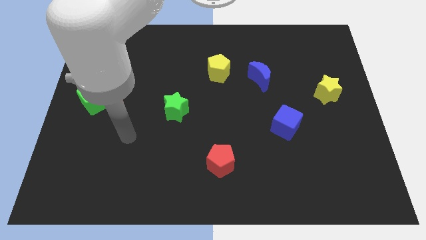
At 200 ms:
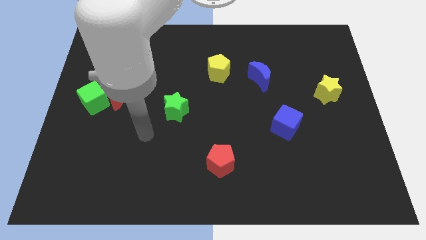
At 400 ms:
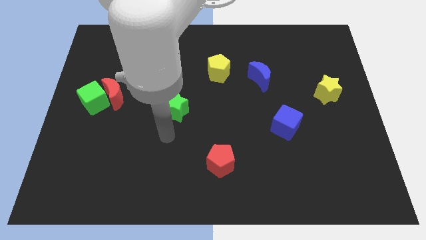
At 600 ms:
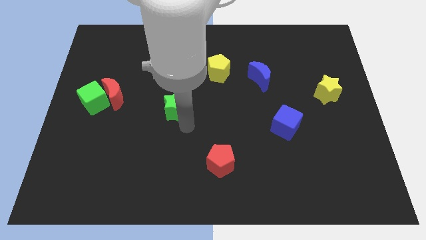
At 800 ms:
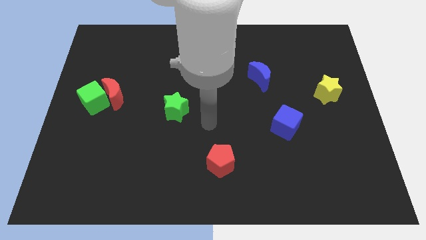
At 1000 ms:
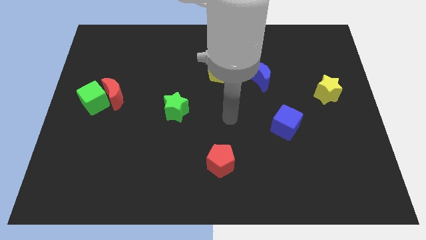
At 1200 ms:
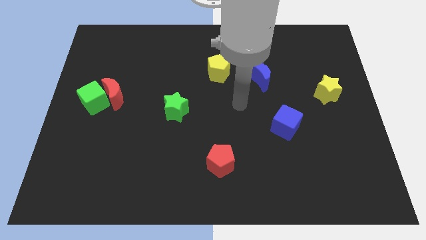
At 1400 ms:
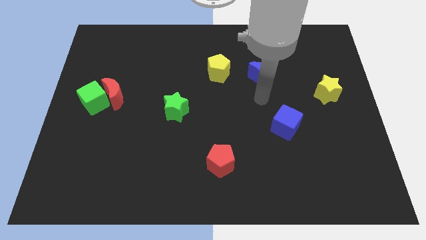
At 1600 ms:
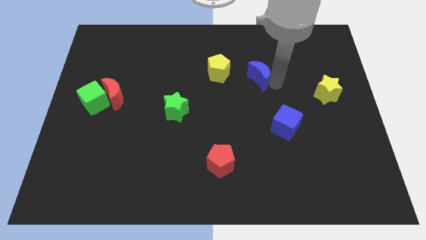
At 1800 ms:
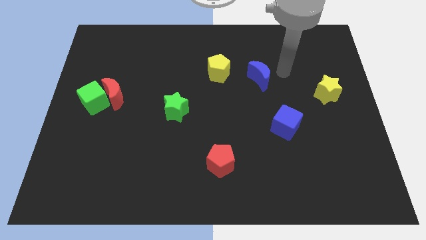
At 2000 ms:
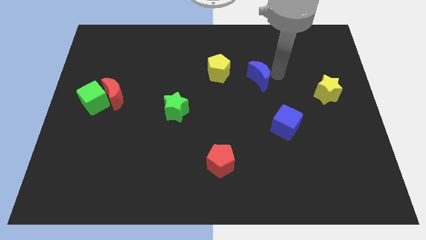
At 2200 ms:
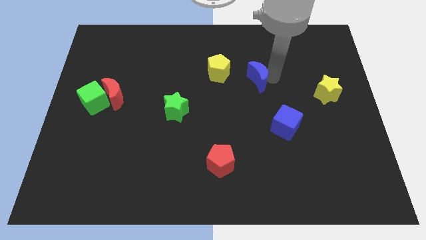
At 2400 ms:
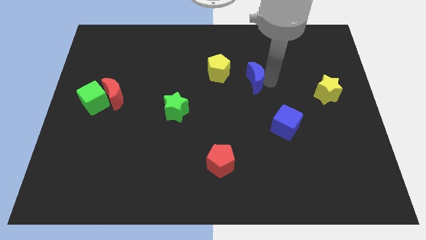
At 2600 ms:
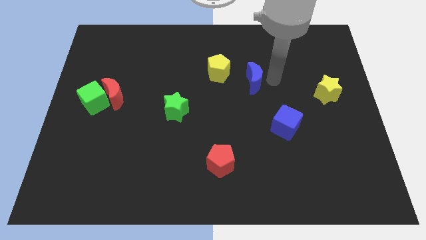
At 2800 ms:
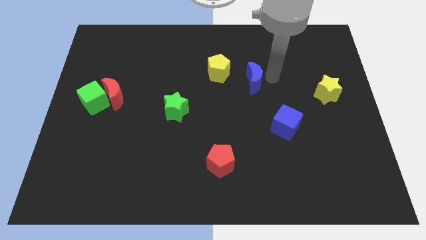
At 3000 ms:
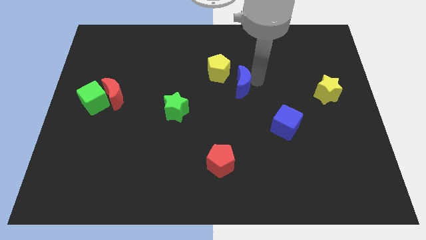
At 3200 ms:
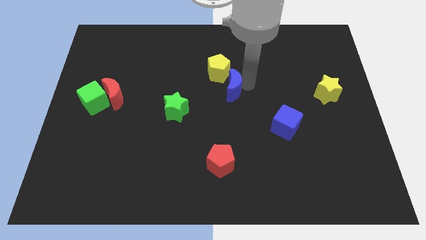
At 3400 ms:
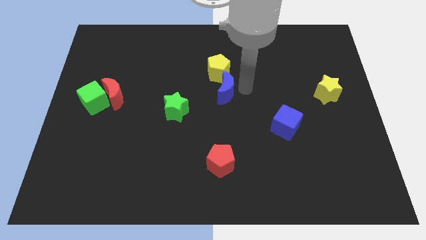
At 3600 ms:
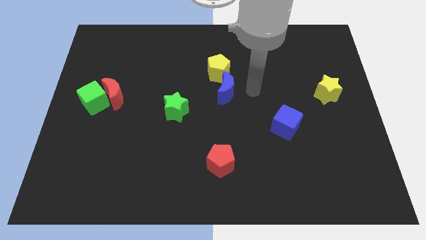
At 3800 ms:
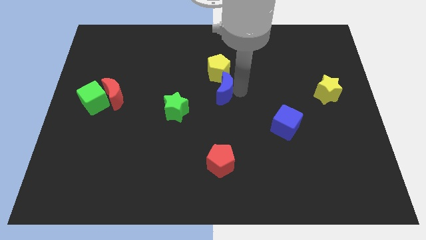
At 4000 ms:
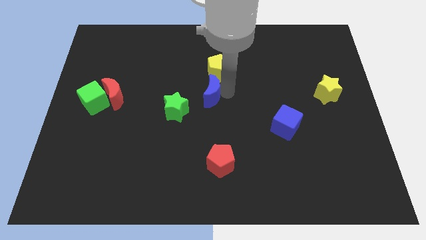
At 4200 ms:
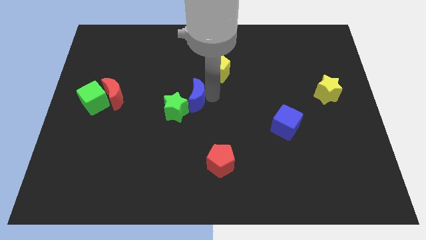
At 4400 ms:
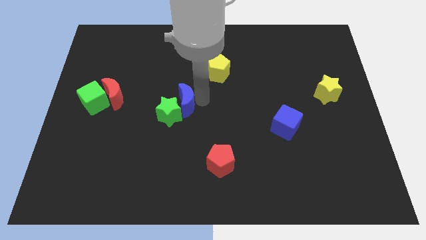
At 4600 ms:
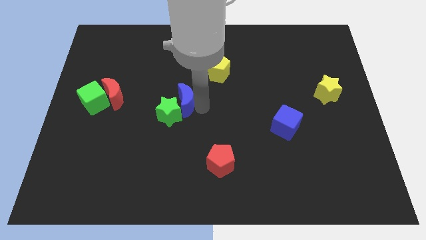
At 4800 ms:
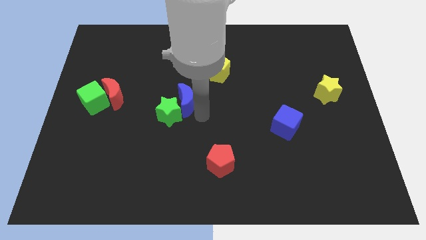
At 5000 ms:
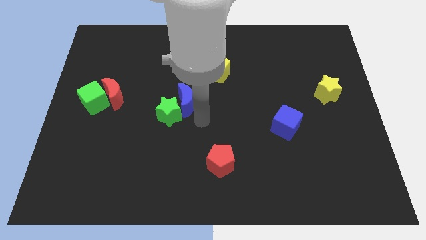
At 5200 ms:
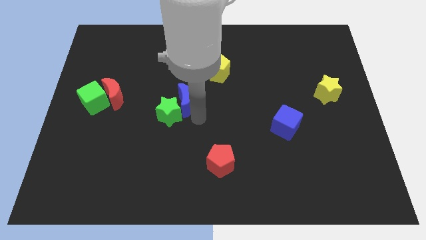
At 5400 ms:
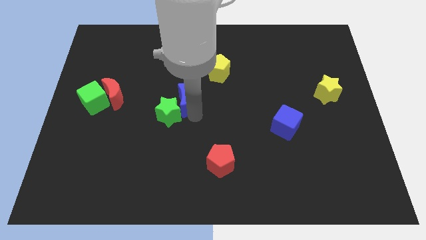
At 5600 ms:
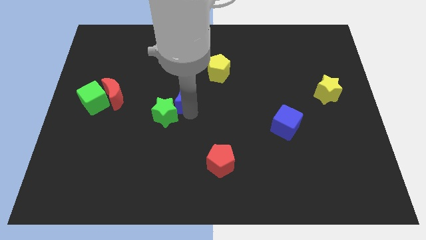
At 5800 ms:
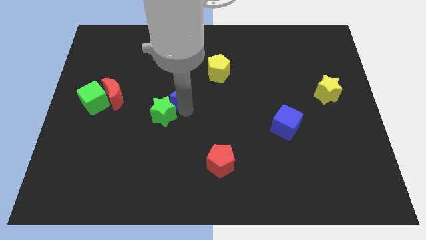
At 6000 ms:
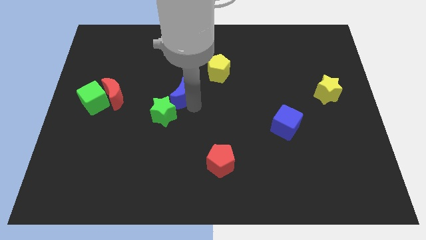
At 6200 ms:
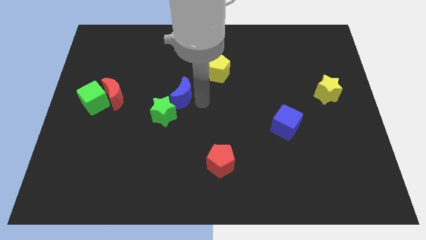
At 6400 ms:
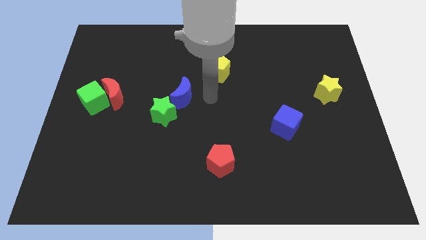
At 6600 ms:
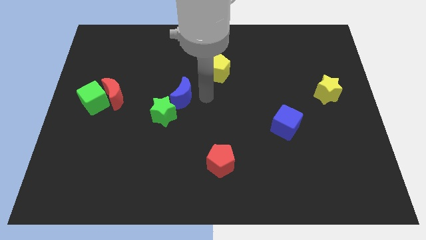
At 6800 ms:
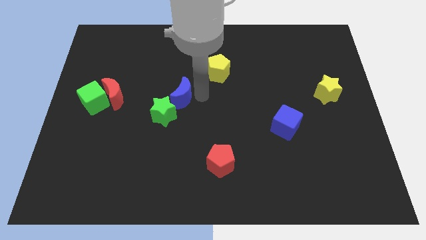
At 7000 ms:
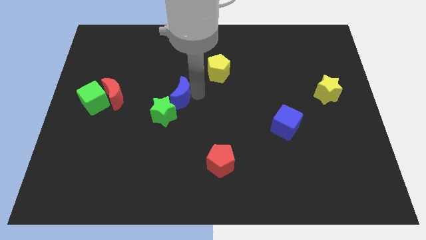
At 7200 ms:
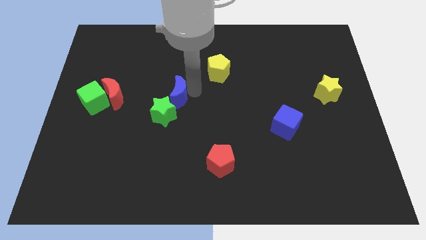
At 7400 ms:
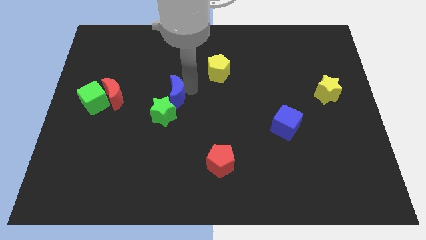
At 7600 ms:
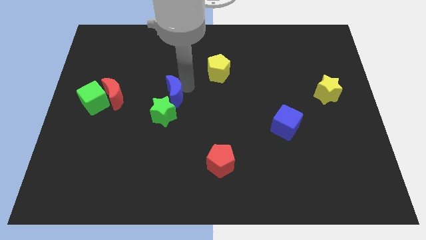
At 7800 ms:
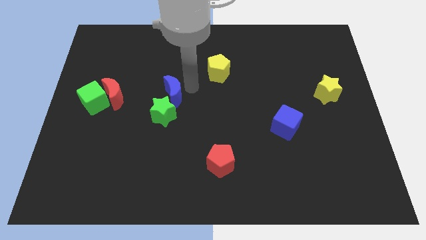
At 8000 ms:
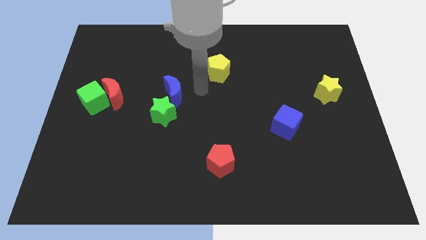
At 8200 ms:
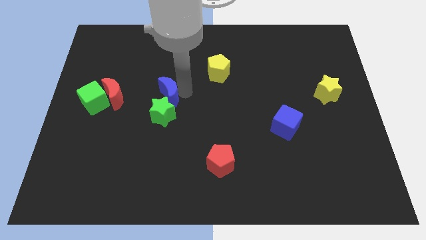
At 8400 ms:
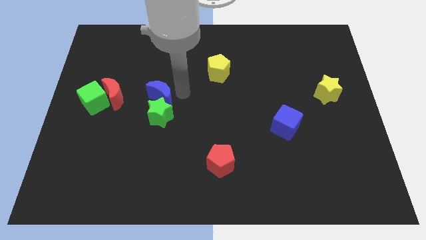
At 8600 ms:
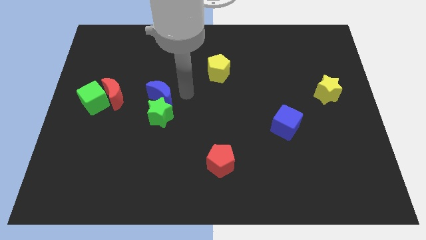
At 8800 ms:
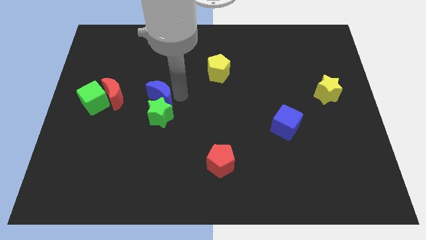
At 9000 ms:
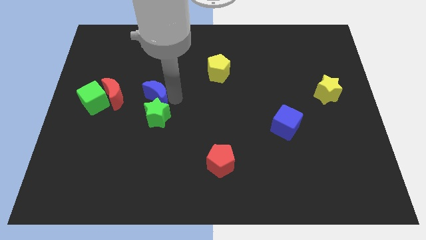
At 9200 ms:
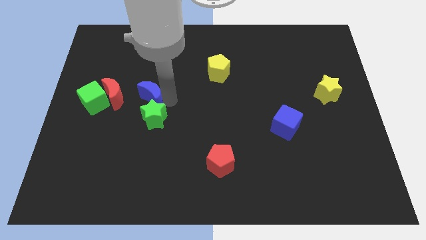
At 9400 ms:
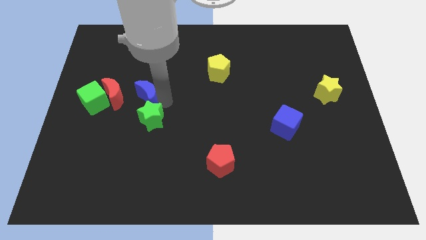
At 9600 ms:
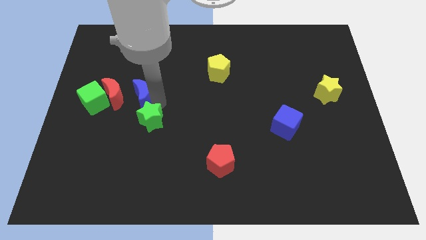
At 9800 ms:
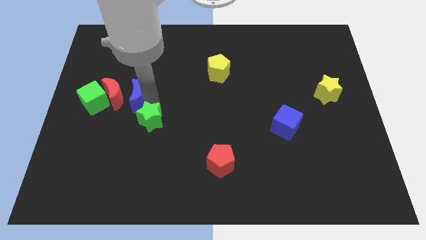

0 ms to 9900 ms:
move the blue moon to the red moon

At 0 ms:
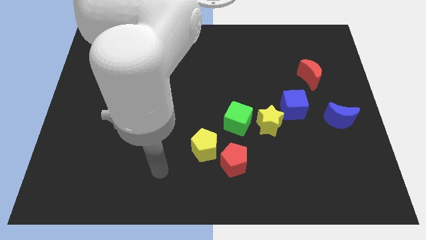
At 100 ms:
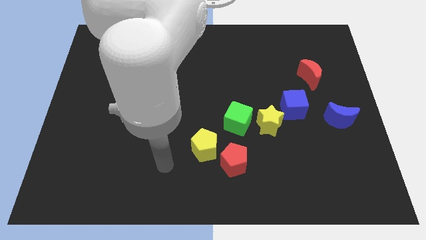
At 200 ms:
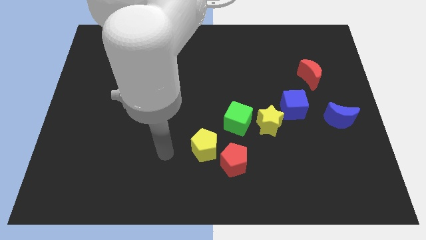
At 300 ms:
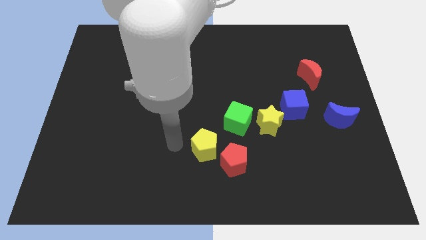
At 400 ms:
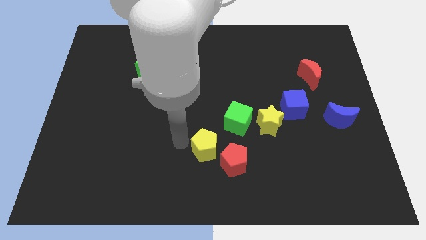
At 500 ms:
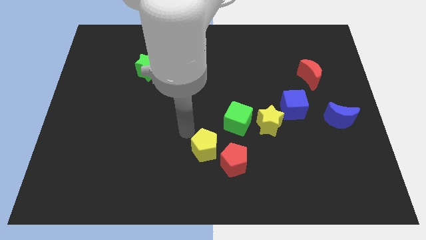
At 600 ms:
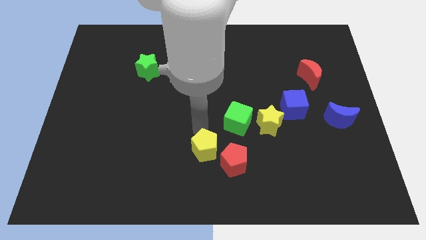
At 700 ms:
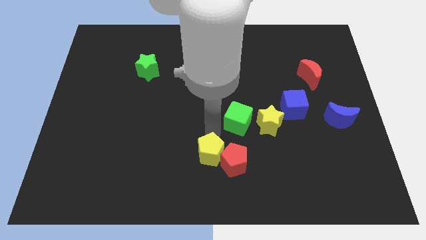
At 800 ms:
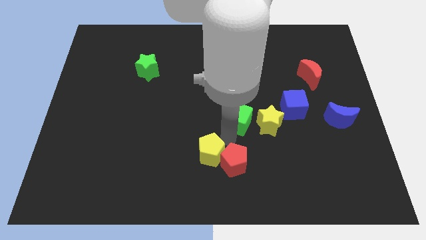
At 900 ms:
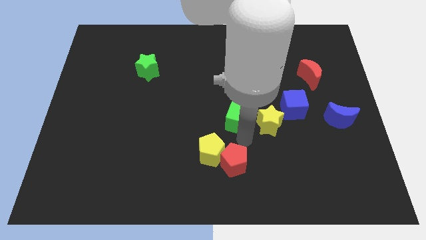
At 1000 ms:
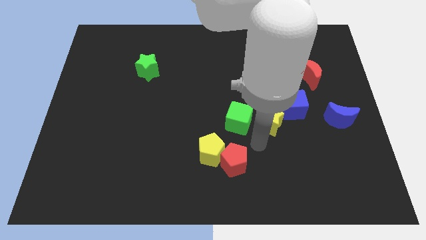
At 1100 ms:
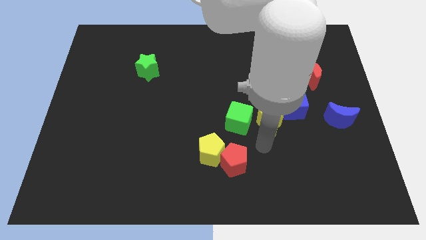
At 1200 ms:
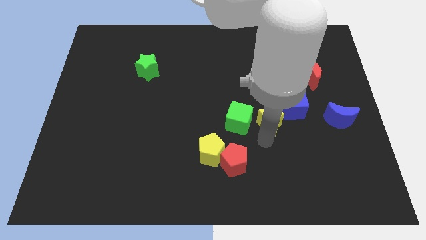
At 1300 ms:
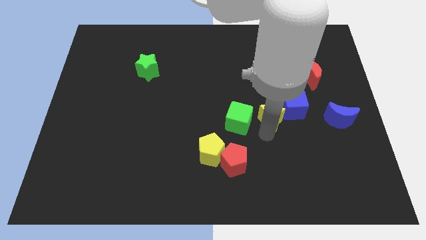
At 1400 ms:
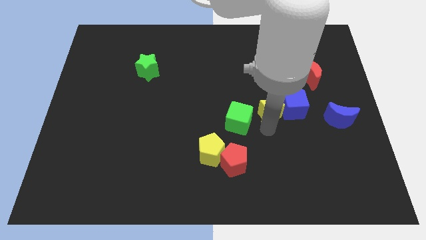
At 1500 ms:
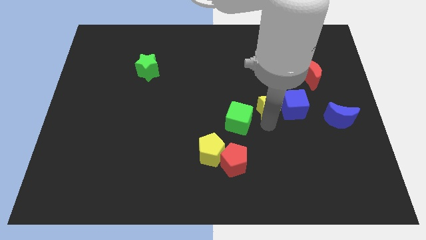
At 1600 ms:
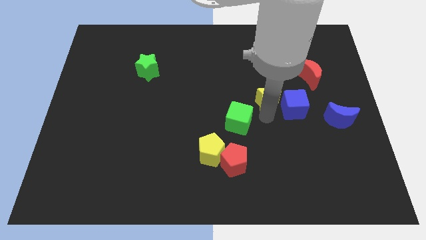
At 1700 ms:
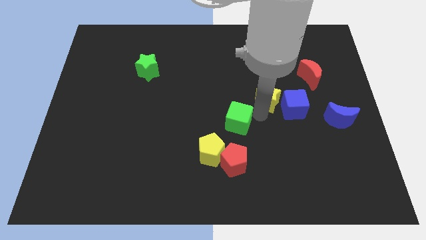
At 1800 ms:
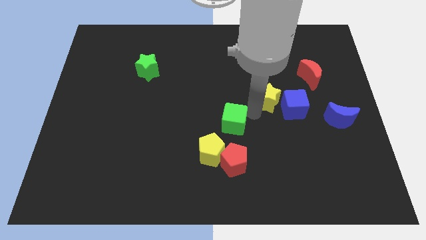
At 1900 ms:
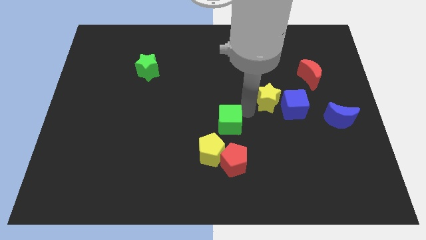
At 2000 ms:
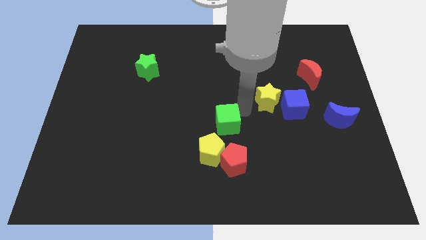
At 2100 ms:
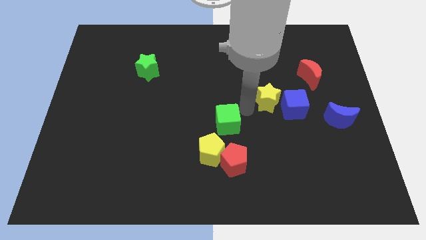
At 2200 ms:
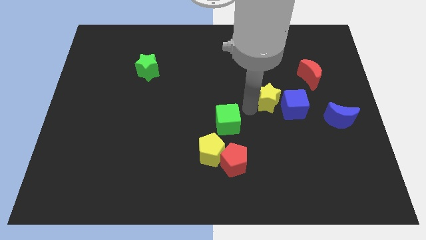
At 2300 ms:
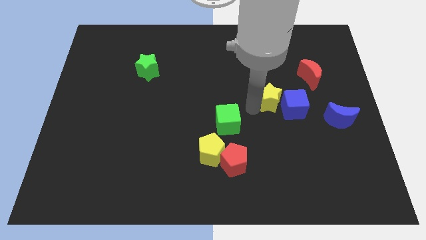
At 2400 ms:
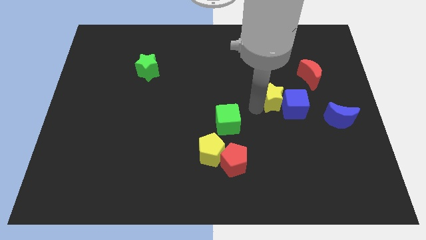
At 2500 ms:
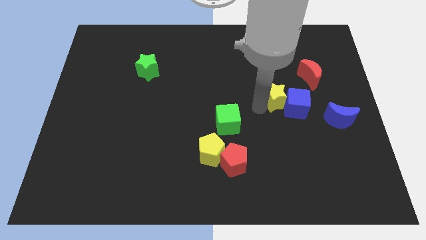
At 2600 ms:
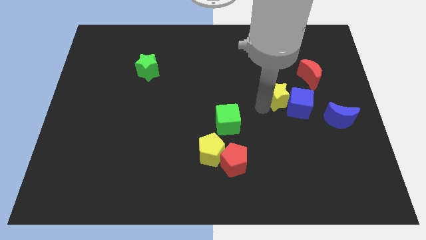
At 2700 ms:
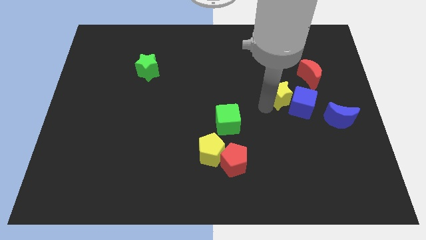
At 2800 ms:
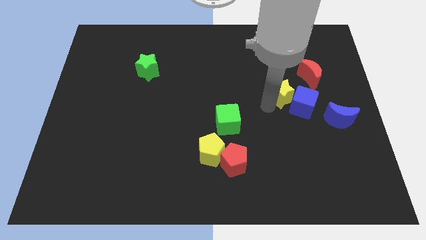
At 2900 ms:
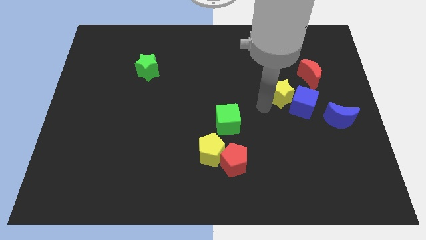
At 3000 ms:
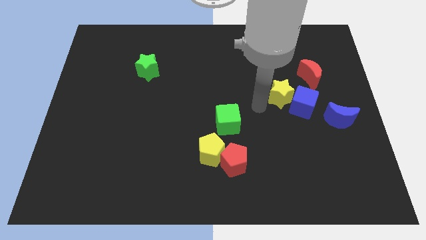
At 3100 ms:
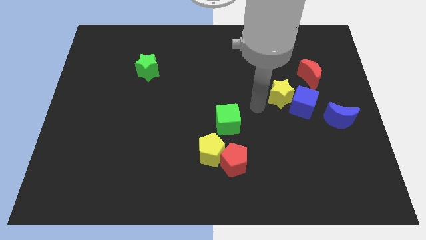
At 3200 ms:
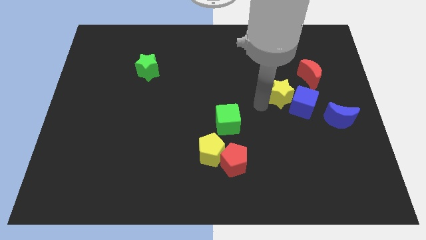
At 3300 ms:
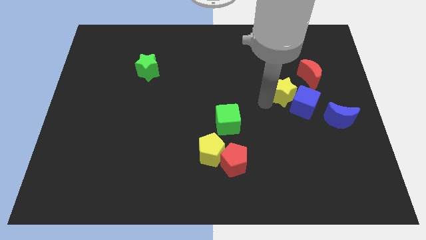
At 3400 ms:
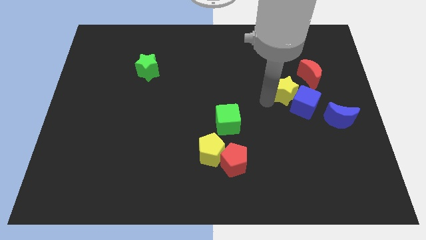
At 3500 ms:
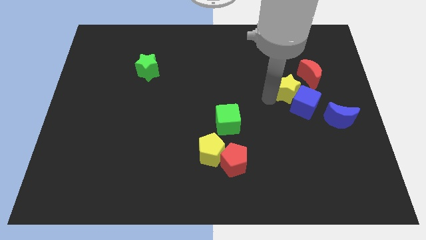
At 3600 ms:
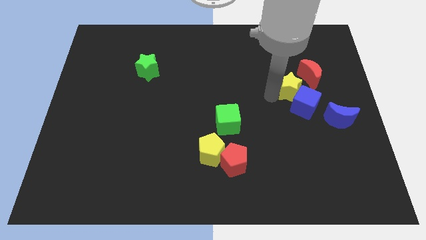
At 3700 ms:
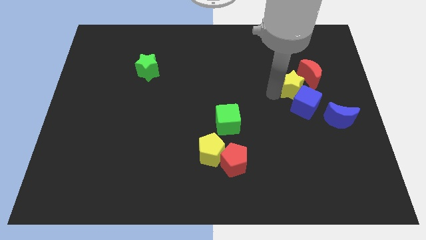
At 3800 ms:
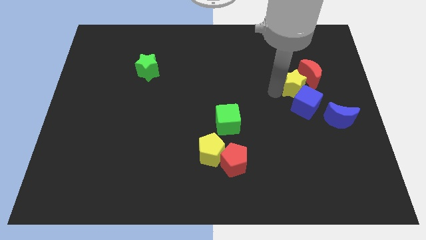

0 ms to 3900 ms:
put the yellow star to the red moon
